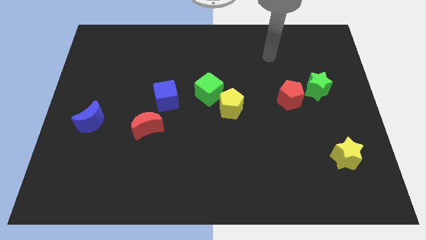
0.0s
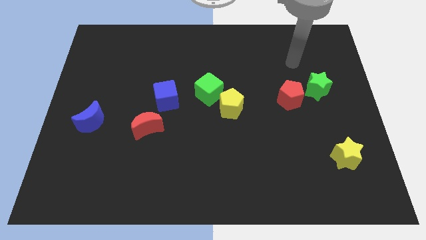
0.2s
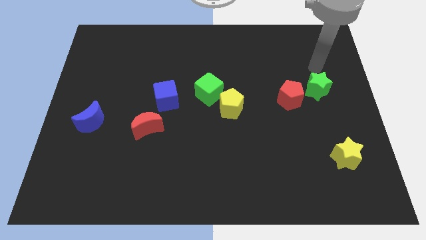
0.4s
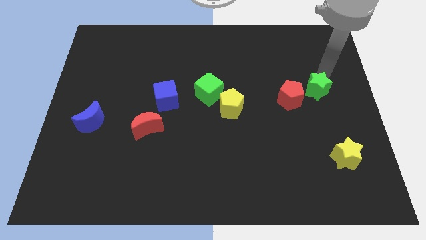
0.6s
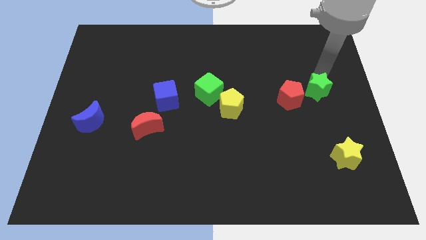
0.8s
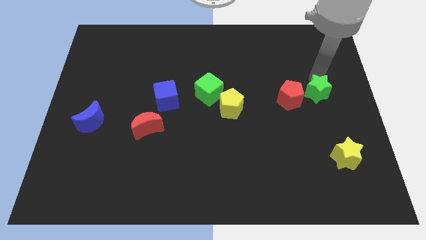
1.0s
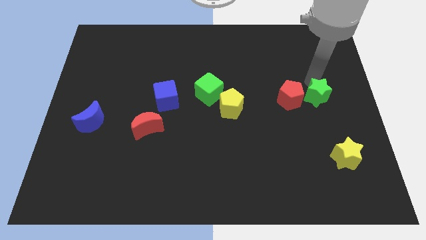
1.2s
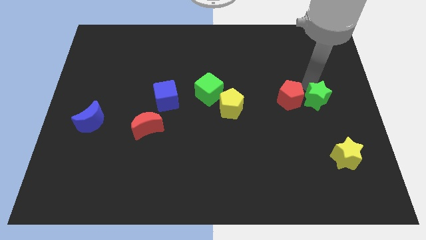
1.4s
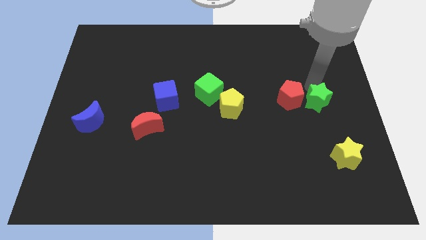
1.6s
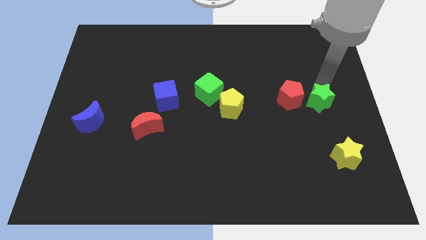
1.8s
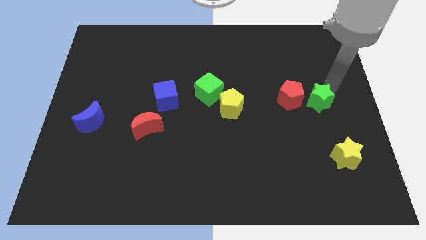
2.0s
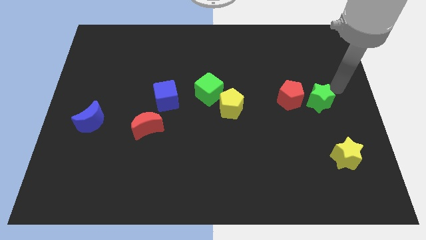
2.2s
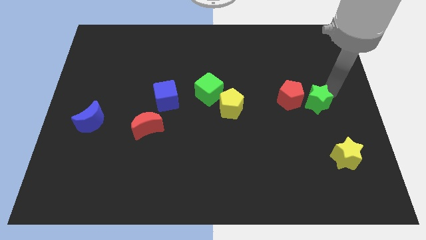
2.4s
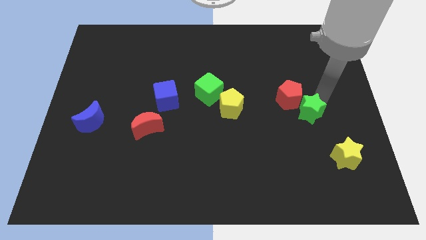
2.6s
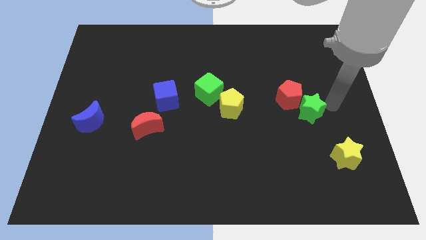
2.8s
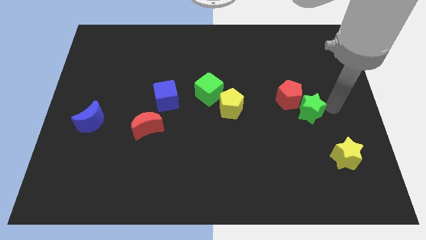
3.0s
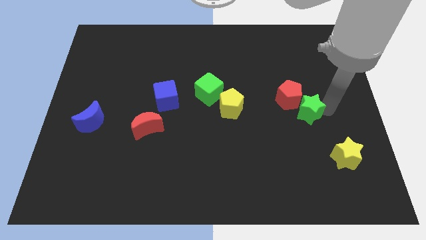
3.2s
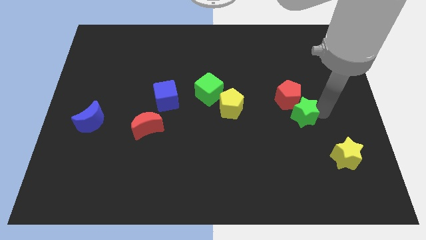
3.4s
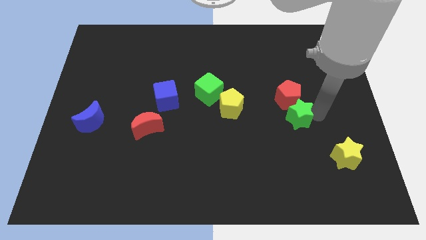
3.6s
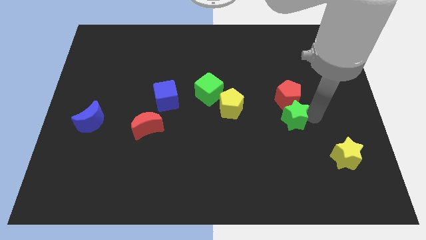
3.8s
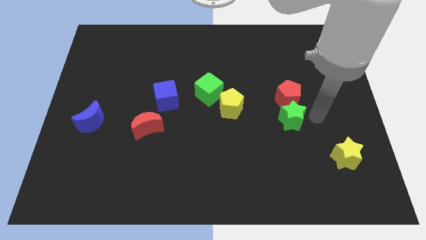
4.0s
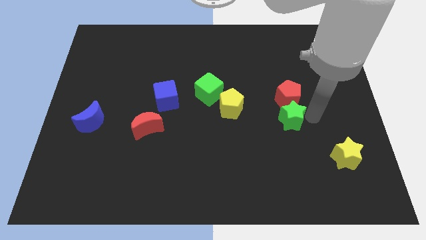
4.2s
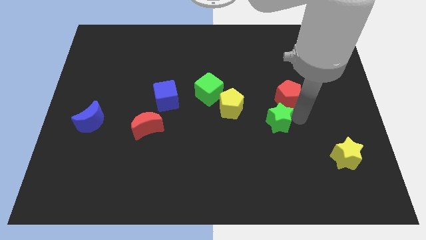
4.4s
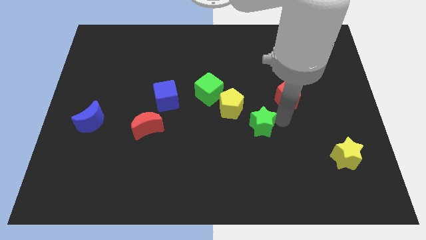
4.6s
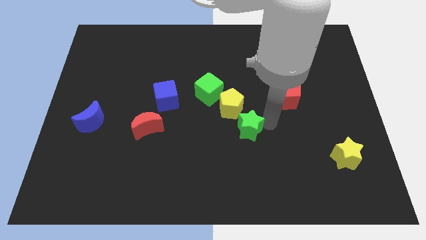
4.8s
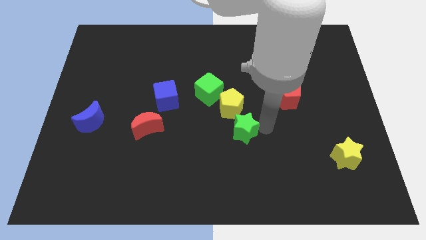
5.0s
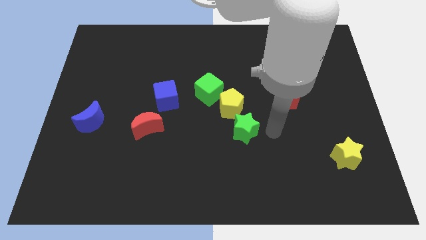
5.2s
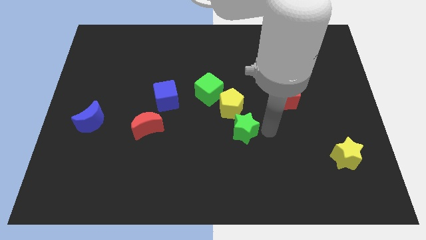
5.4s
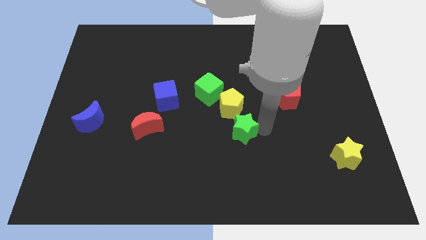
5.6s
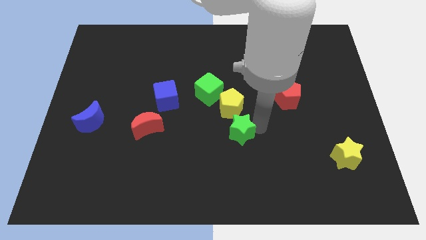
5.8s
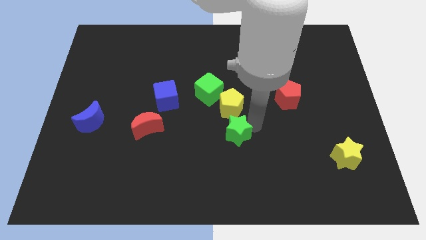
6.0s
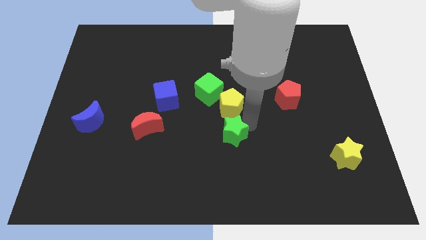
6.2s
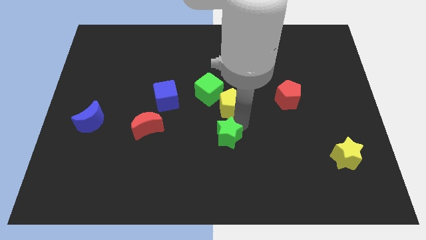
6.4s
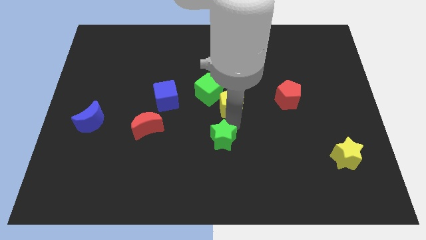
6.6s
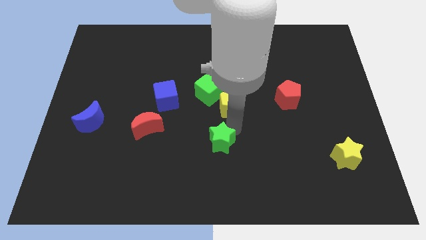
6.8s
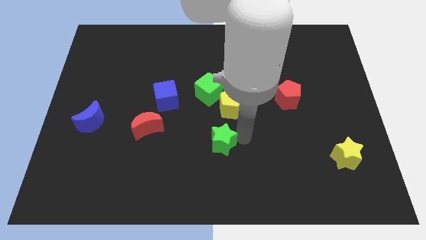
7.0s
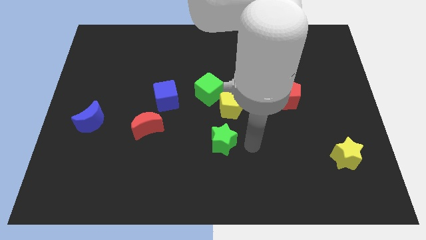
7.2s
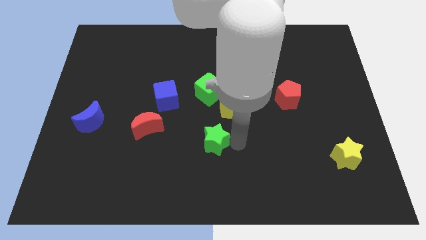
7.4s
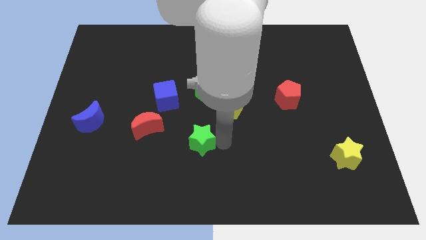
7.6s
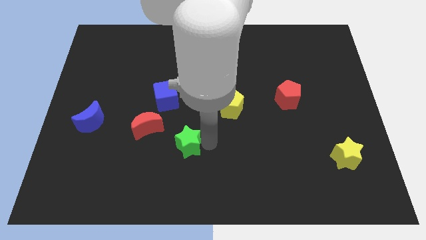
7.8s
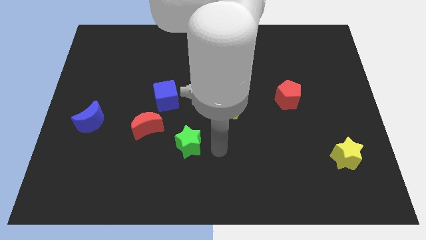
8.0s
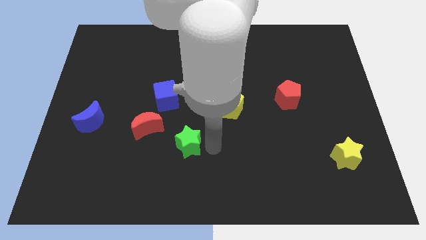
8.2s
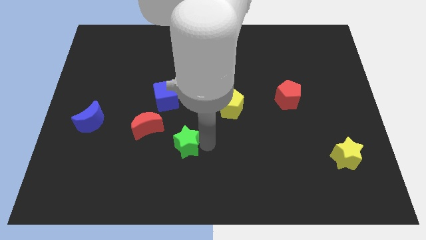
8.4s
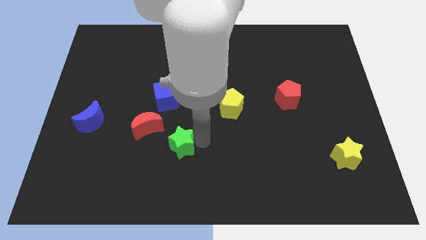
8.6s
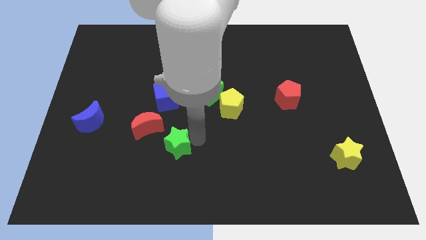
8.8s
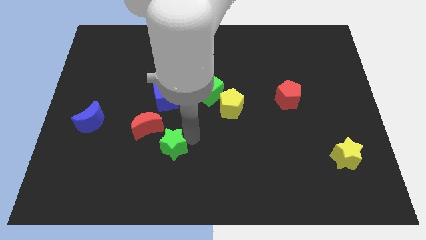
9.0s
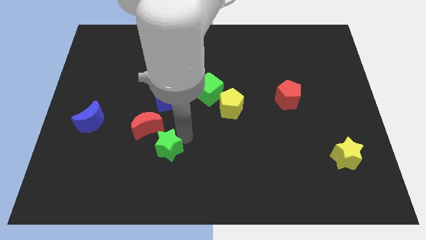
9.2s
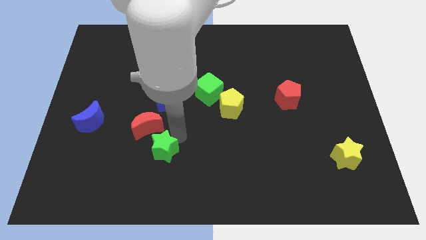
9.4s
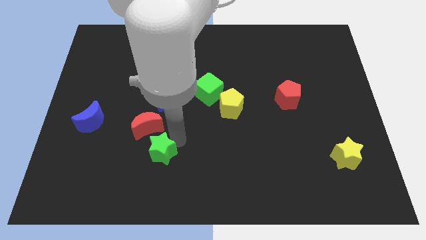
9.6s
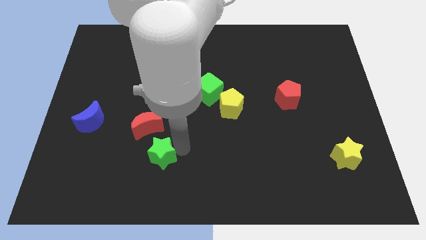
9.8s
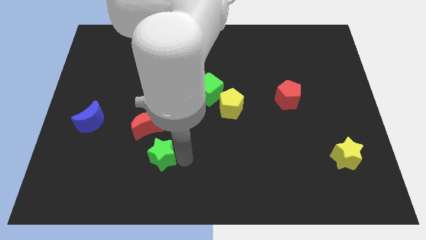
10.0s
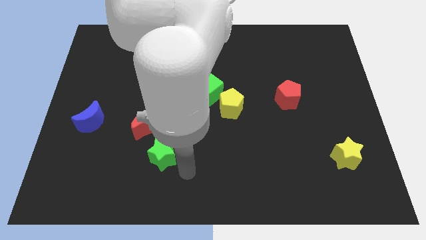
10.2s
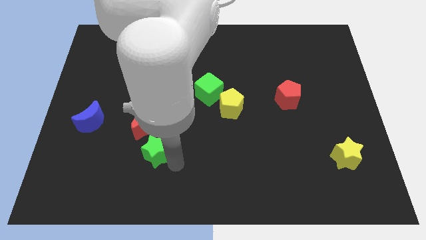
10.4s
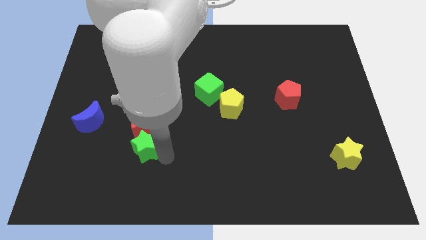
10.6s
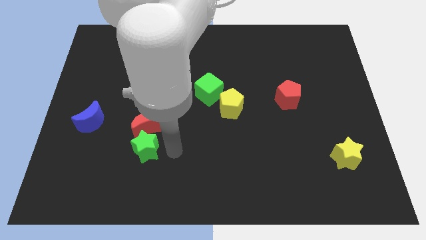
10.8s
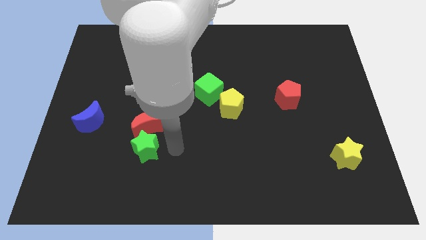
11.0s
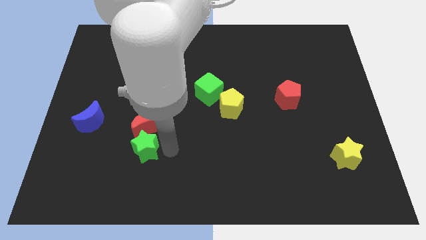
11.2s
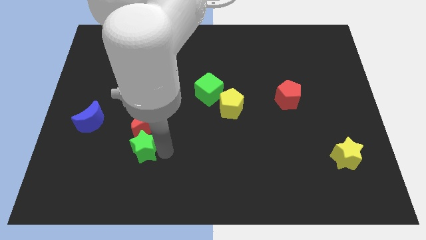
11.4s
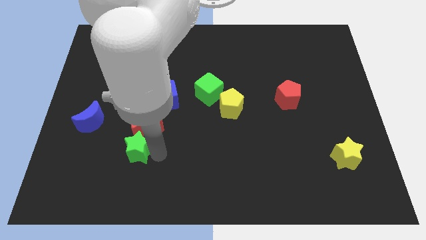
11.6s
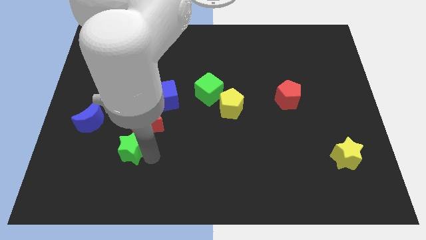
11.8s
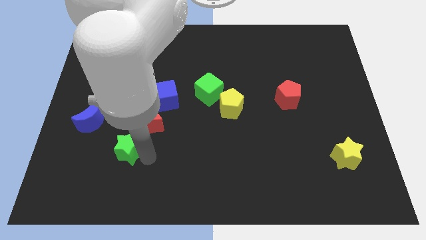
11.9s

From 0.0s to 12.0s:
put the green star to the bottom right side of the blue moon

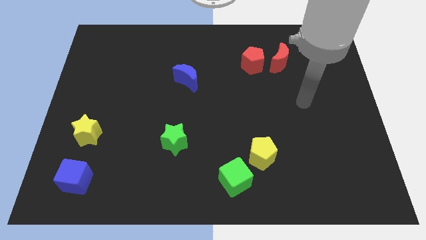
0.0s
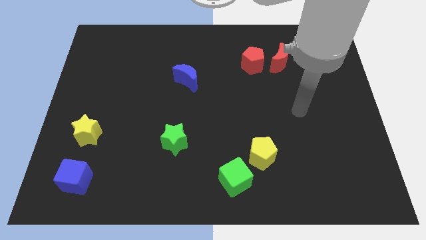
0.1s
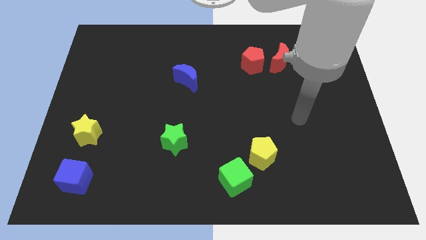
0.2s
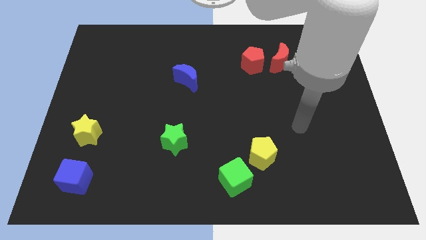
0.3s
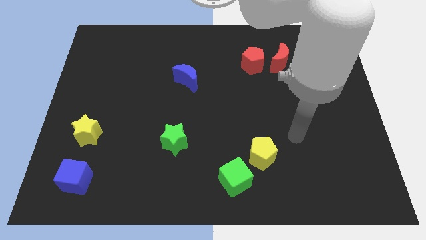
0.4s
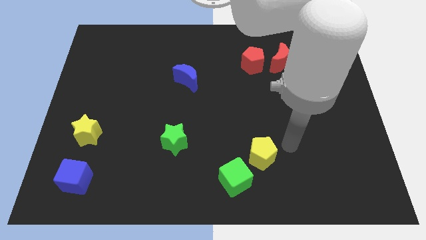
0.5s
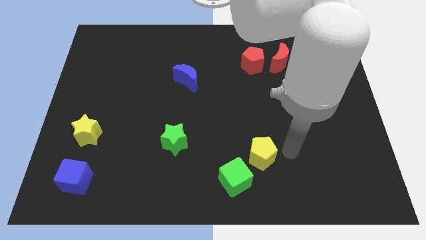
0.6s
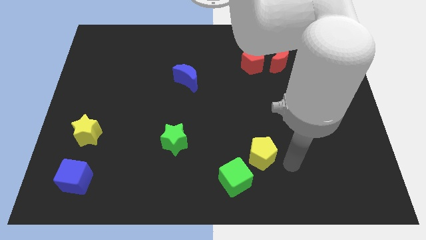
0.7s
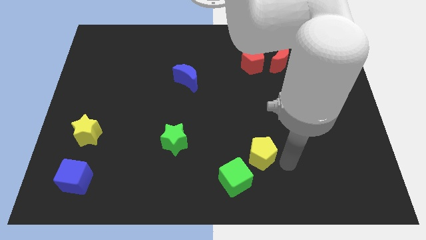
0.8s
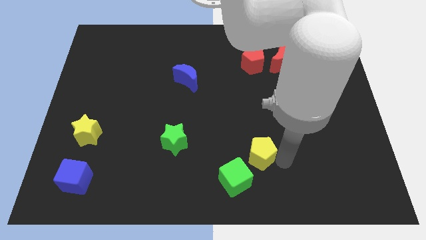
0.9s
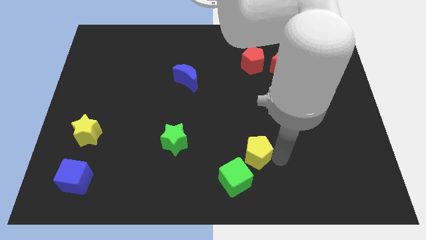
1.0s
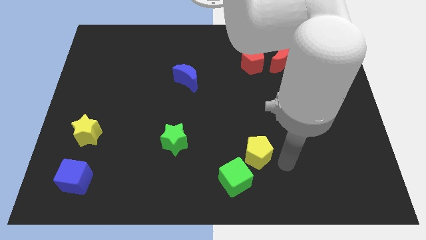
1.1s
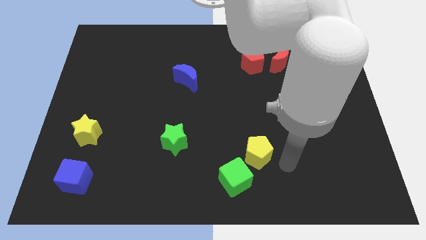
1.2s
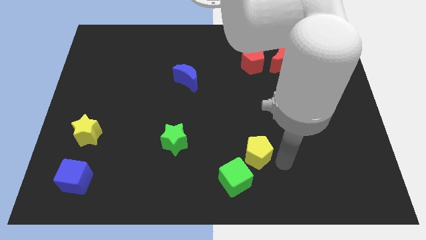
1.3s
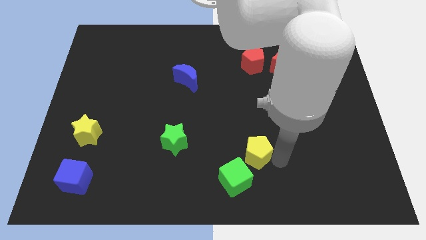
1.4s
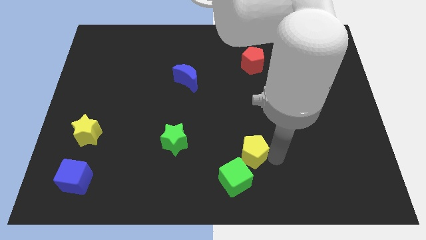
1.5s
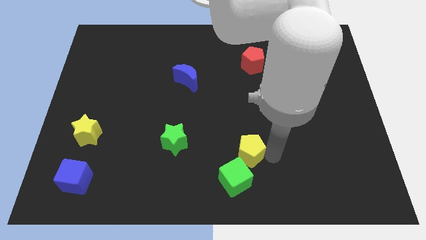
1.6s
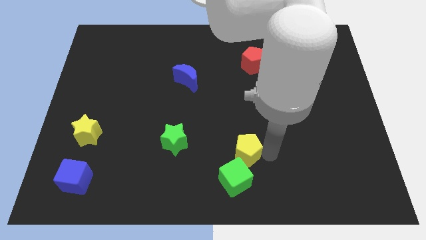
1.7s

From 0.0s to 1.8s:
put the yellow pentagon right of the green star
